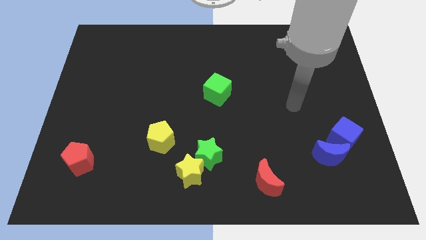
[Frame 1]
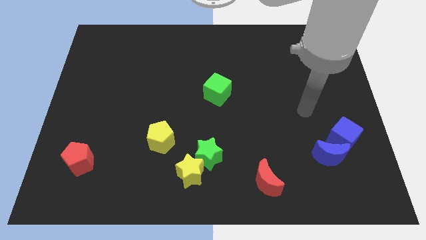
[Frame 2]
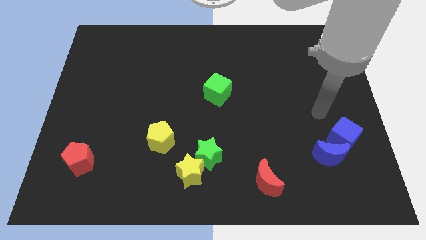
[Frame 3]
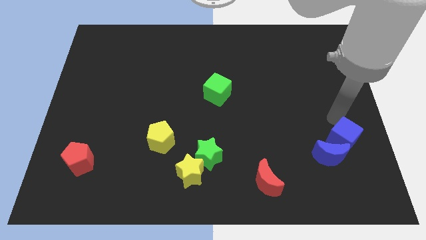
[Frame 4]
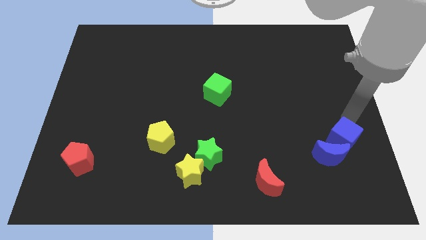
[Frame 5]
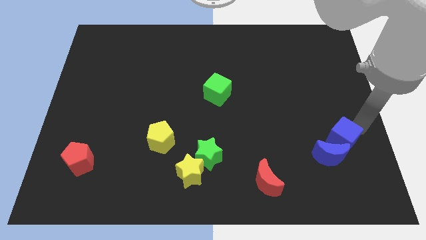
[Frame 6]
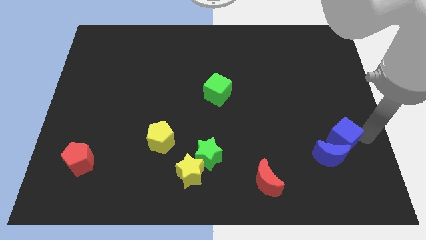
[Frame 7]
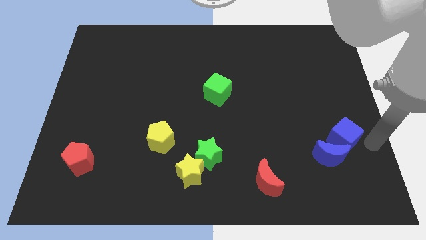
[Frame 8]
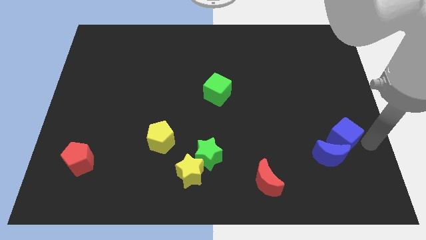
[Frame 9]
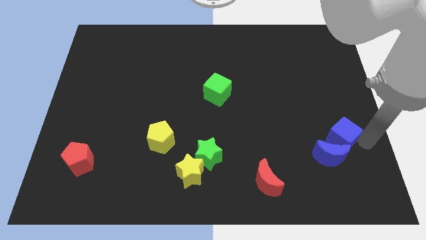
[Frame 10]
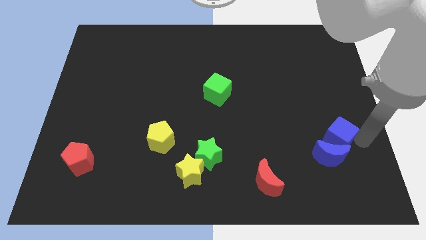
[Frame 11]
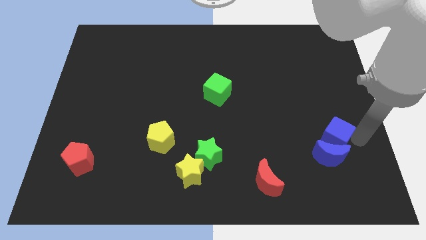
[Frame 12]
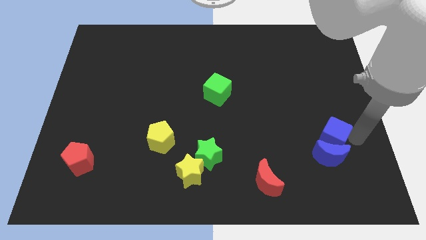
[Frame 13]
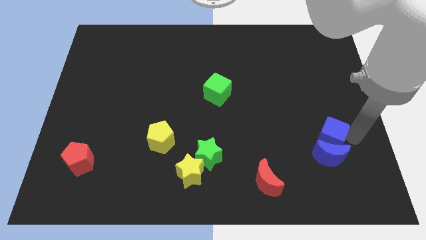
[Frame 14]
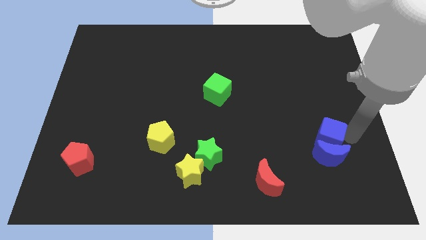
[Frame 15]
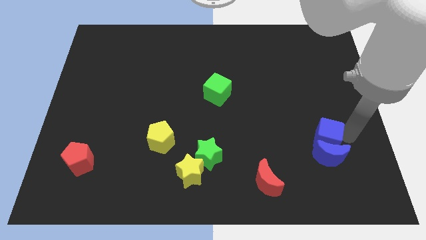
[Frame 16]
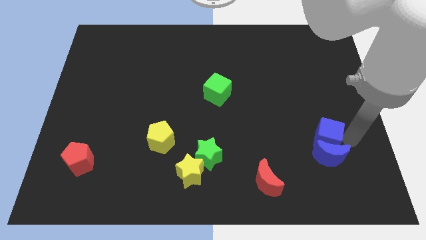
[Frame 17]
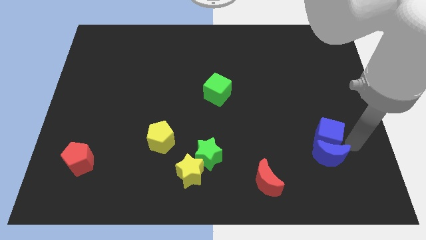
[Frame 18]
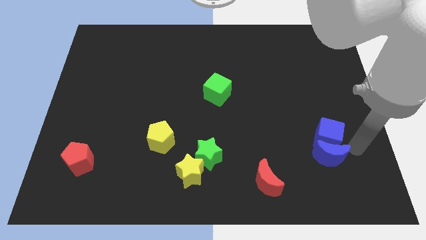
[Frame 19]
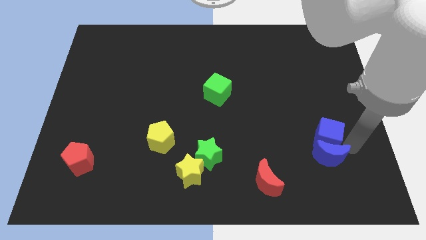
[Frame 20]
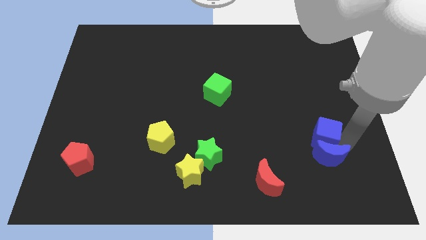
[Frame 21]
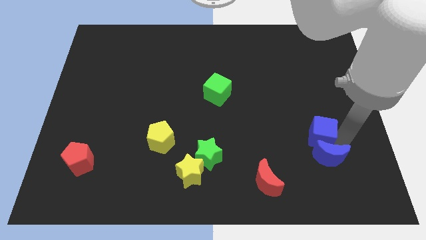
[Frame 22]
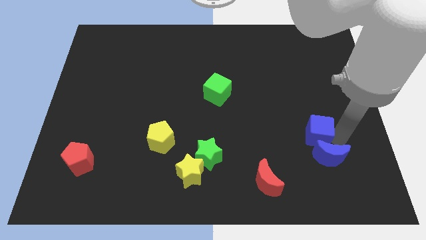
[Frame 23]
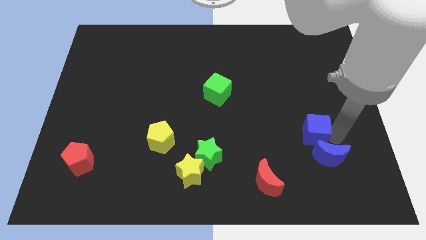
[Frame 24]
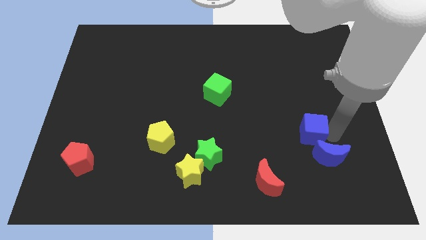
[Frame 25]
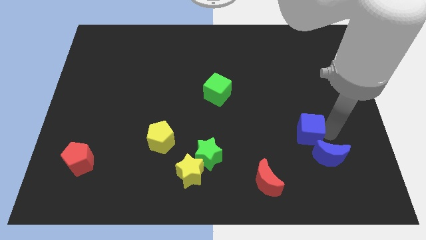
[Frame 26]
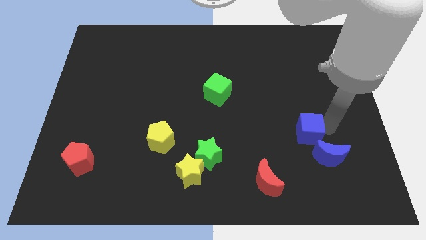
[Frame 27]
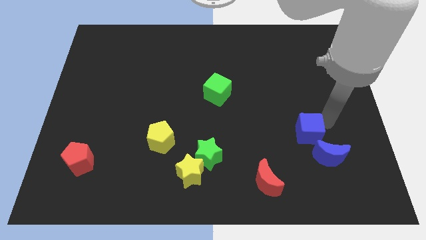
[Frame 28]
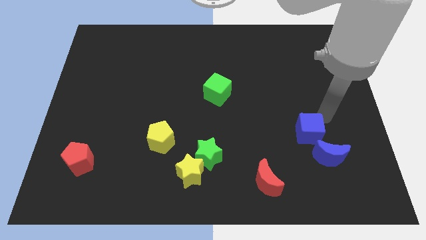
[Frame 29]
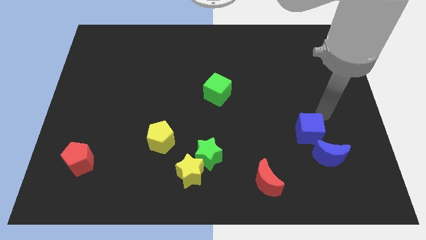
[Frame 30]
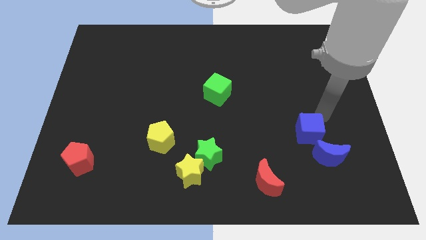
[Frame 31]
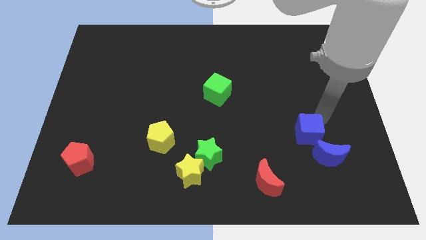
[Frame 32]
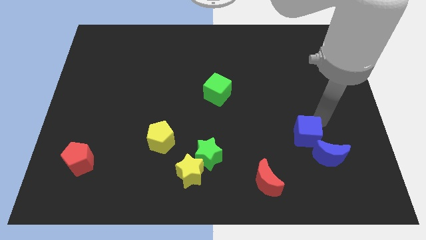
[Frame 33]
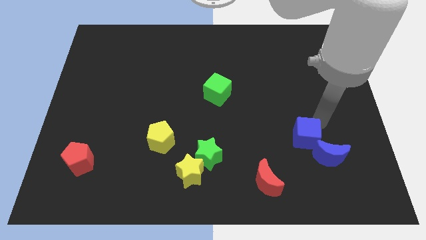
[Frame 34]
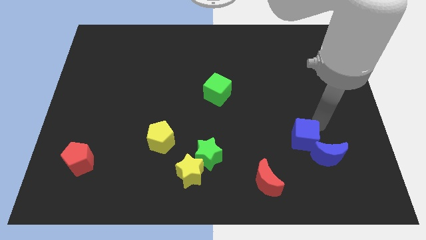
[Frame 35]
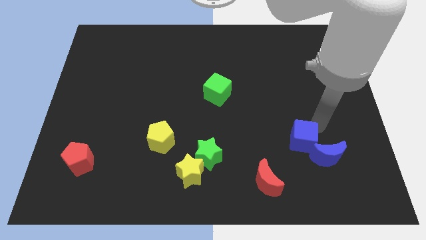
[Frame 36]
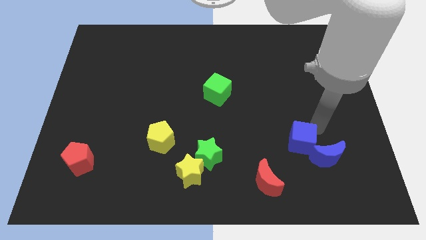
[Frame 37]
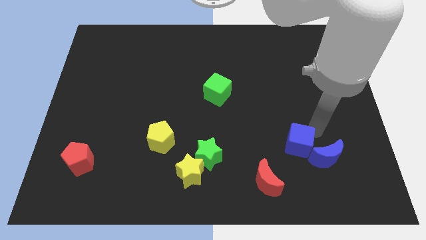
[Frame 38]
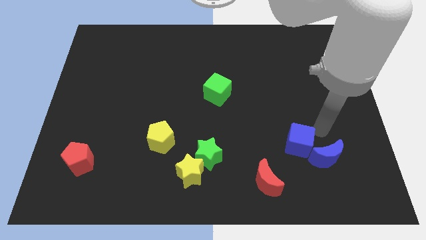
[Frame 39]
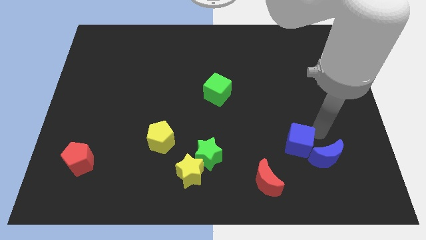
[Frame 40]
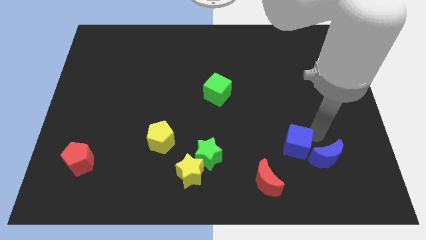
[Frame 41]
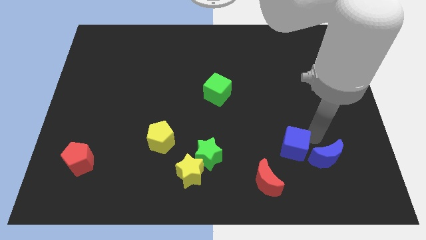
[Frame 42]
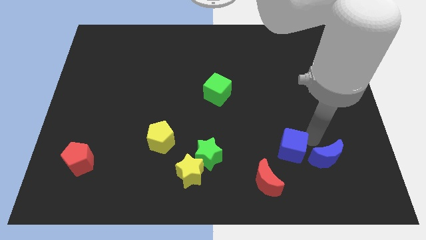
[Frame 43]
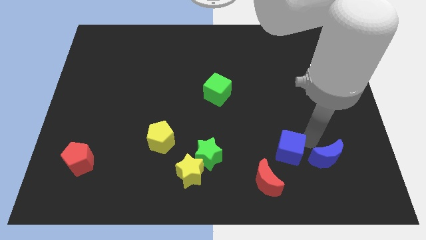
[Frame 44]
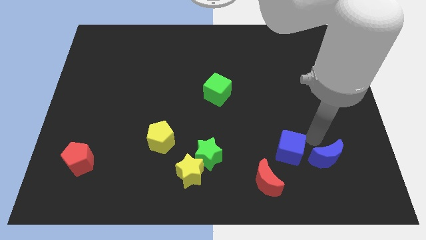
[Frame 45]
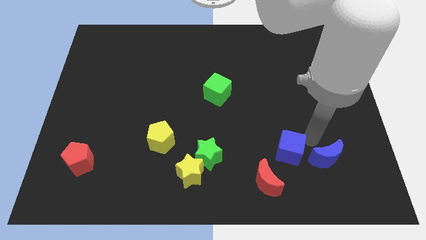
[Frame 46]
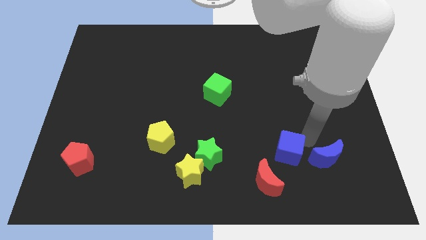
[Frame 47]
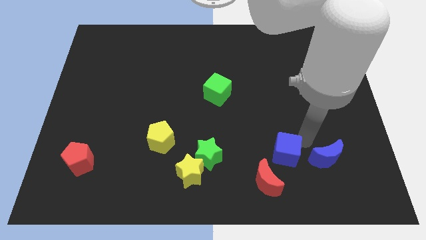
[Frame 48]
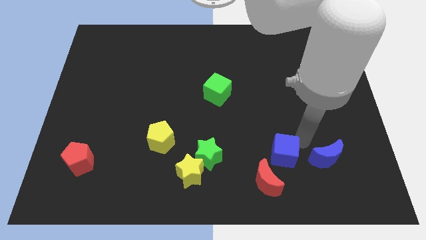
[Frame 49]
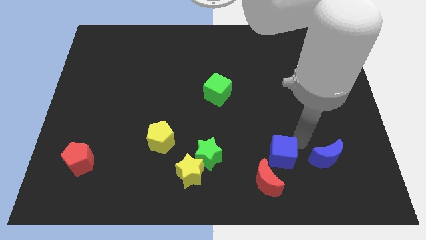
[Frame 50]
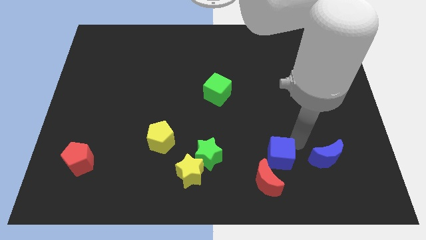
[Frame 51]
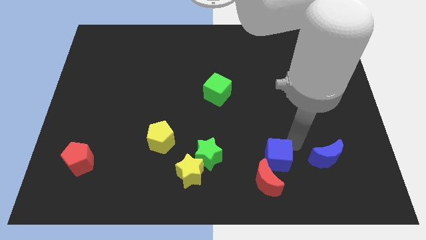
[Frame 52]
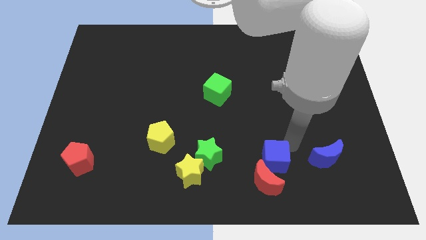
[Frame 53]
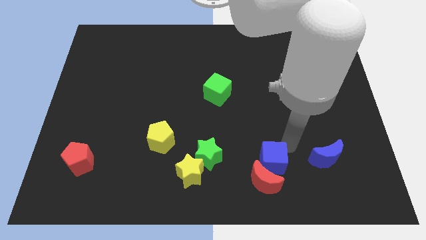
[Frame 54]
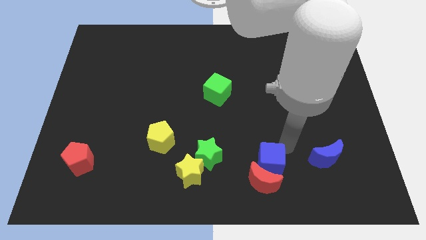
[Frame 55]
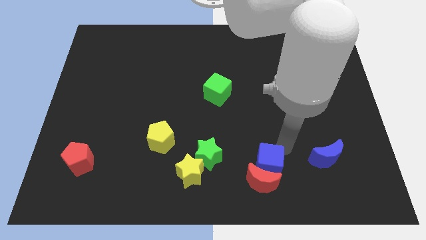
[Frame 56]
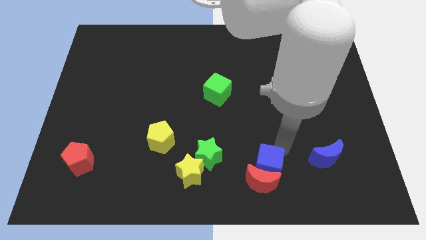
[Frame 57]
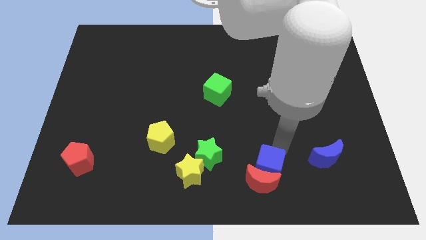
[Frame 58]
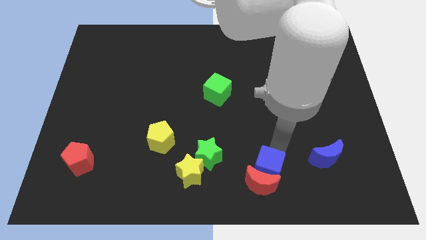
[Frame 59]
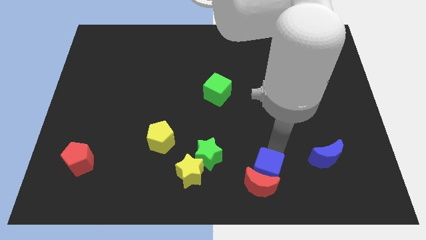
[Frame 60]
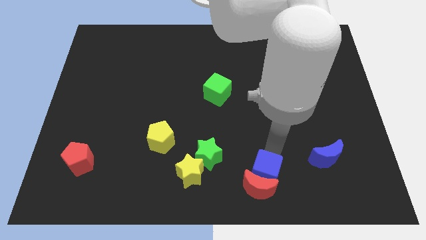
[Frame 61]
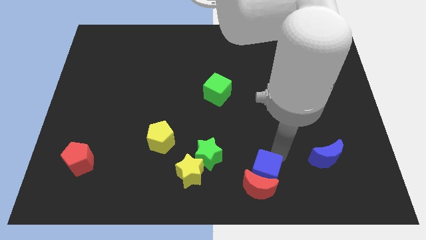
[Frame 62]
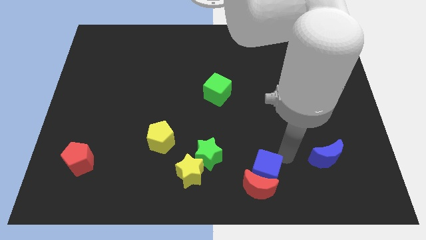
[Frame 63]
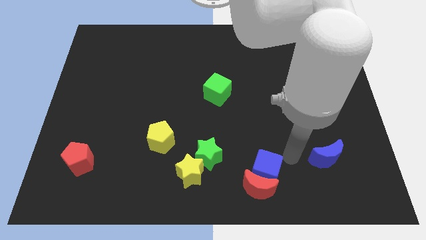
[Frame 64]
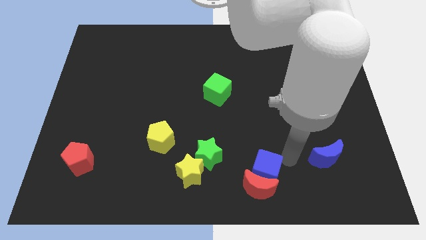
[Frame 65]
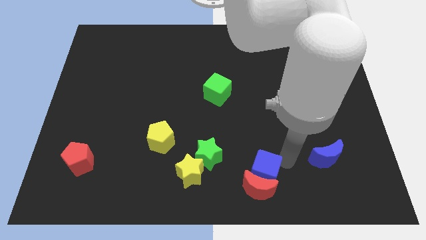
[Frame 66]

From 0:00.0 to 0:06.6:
move the blue cube to the bottom

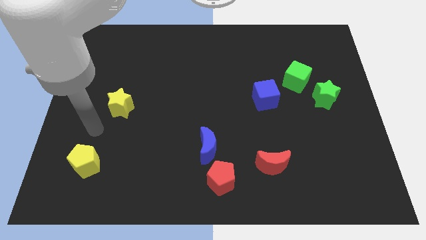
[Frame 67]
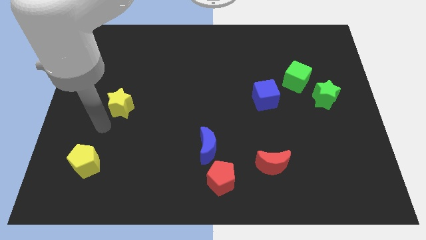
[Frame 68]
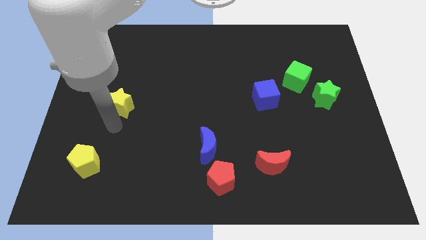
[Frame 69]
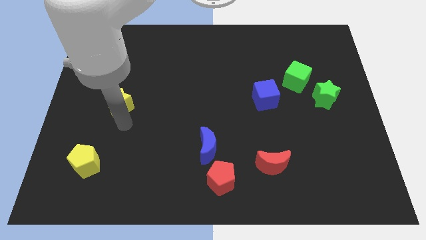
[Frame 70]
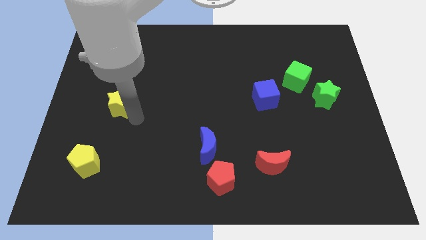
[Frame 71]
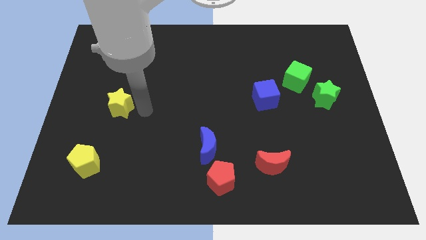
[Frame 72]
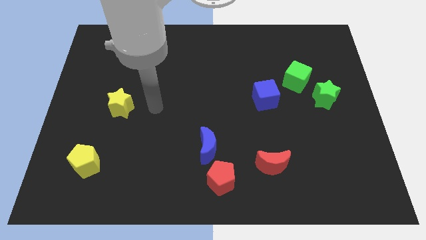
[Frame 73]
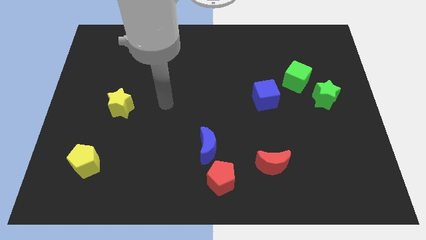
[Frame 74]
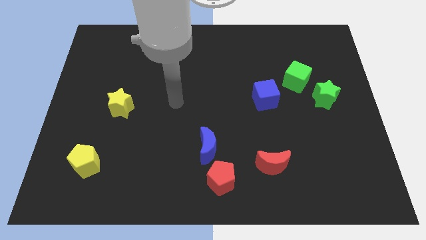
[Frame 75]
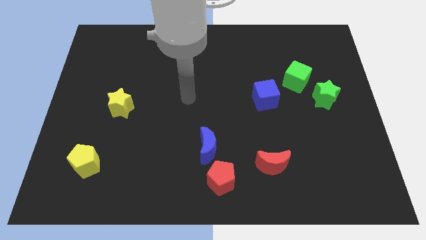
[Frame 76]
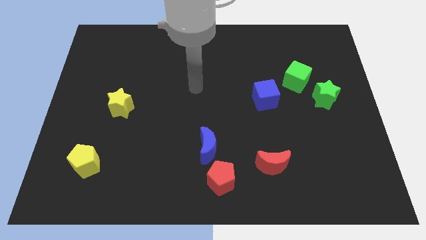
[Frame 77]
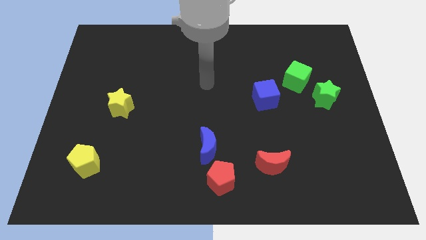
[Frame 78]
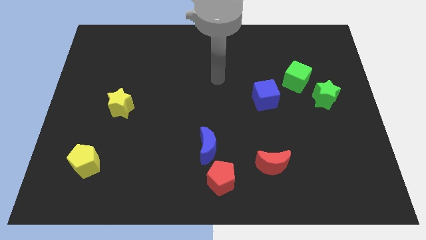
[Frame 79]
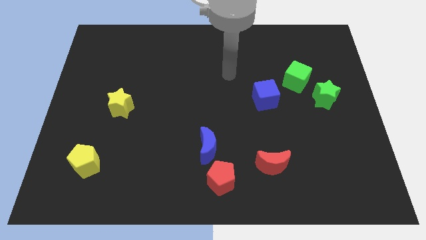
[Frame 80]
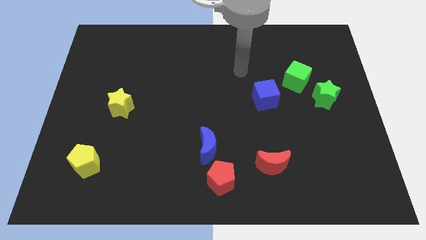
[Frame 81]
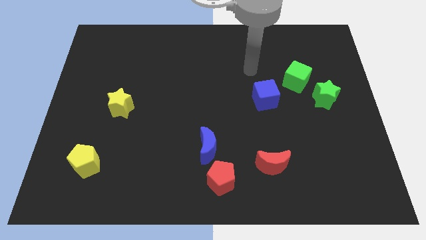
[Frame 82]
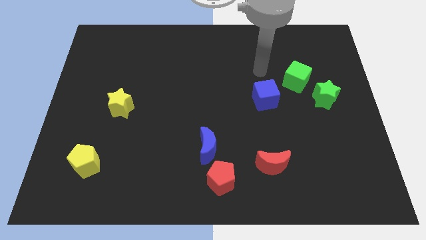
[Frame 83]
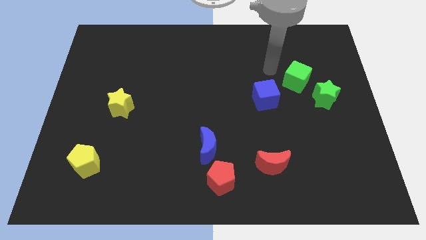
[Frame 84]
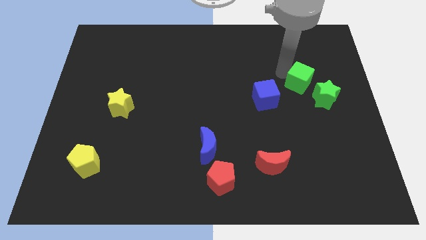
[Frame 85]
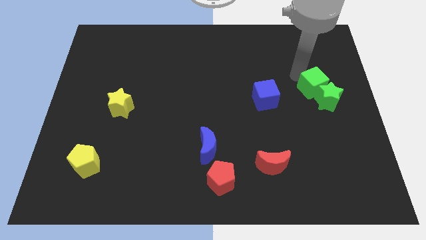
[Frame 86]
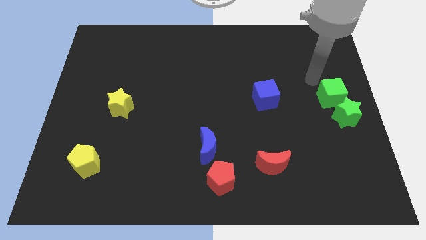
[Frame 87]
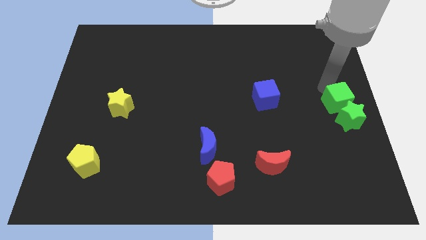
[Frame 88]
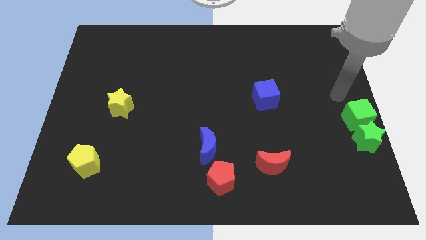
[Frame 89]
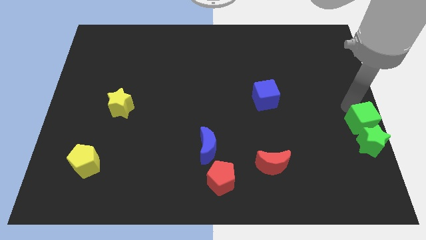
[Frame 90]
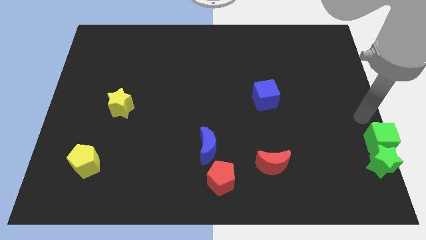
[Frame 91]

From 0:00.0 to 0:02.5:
slide the green star to the bottom right
